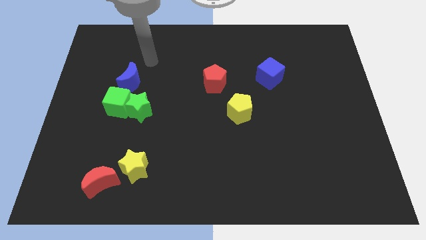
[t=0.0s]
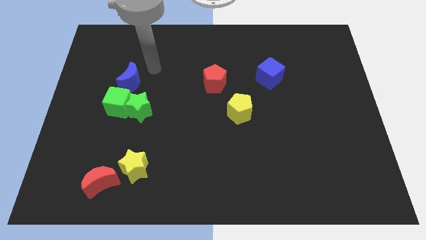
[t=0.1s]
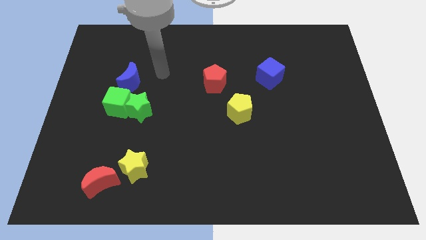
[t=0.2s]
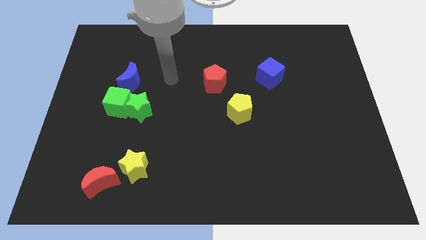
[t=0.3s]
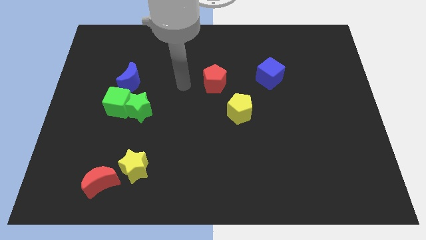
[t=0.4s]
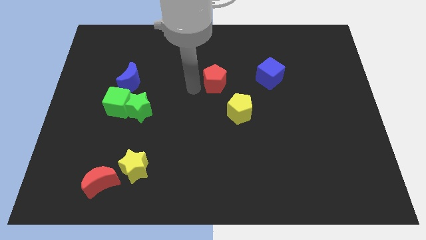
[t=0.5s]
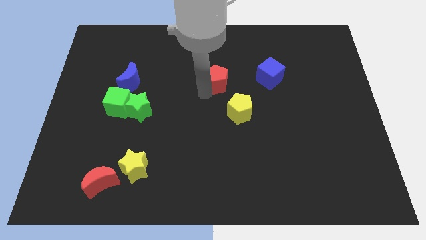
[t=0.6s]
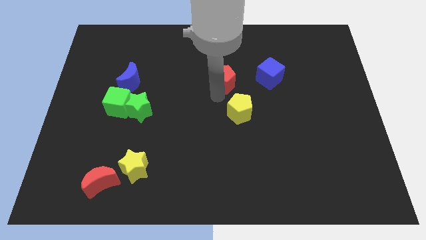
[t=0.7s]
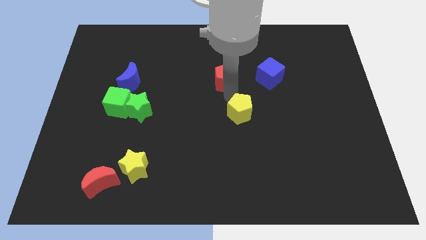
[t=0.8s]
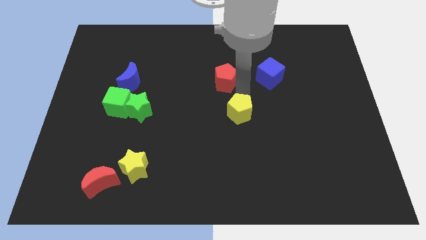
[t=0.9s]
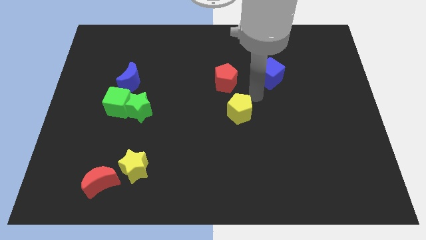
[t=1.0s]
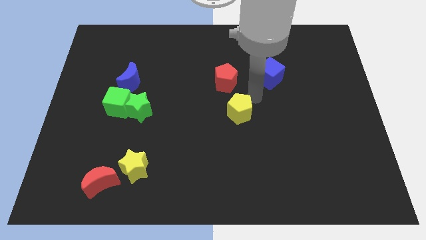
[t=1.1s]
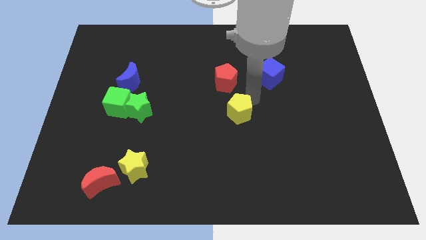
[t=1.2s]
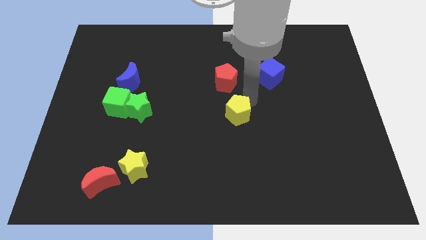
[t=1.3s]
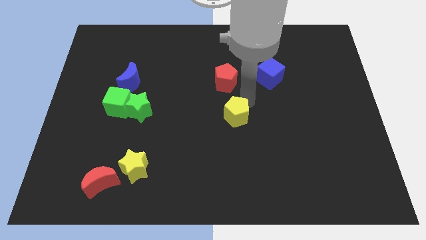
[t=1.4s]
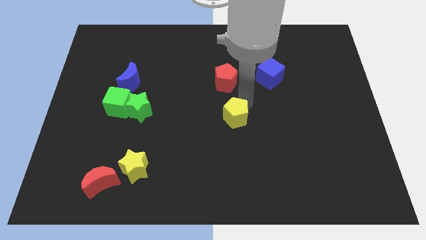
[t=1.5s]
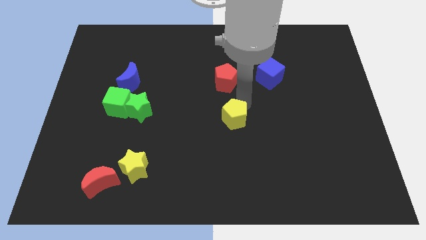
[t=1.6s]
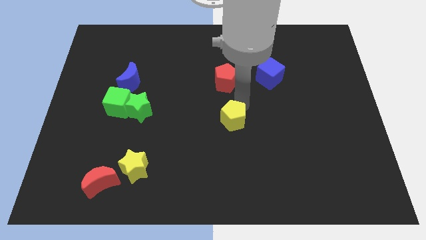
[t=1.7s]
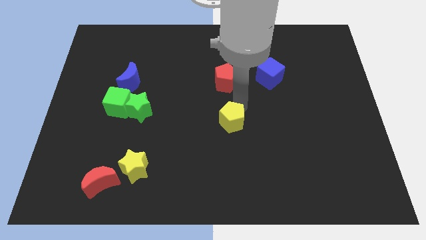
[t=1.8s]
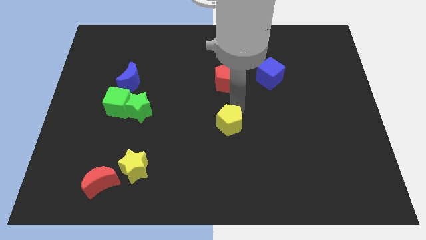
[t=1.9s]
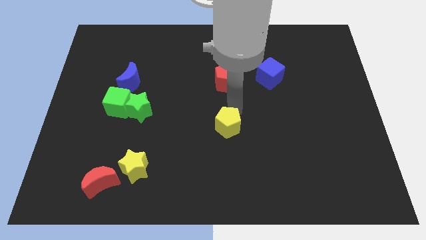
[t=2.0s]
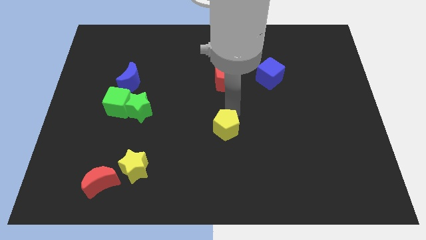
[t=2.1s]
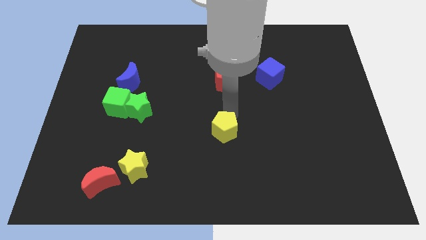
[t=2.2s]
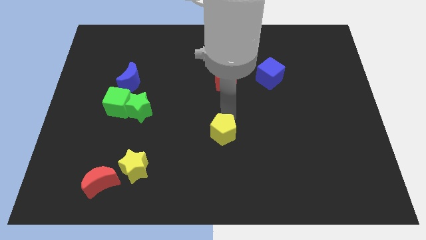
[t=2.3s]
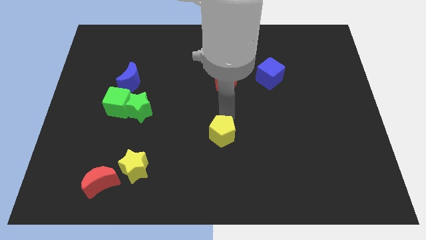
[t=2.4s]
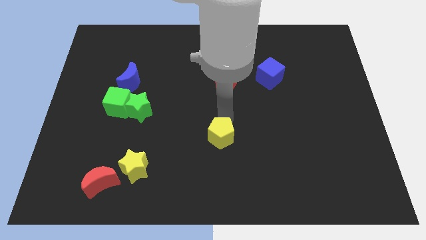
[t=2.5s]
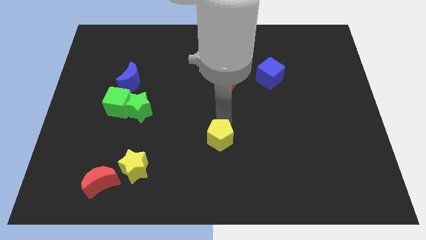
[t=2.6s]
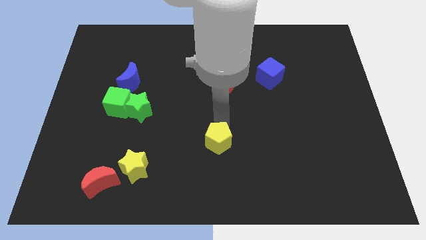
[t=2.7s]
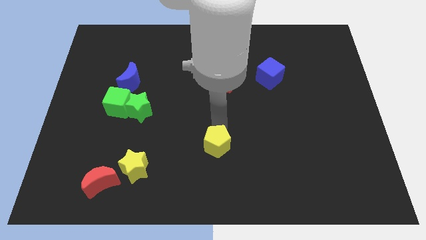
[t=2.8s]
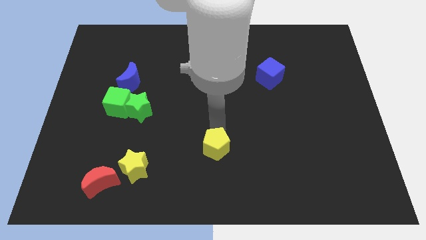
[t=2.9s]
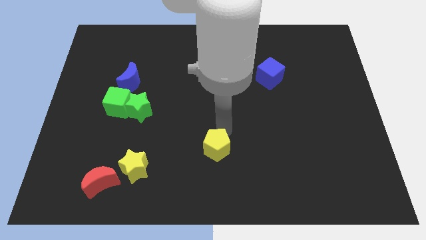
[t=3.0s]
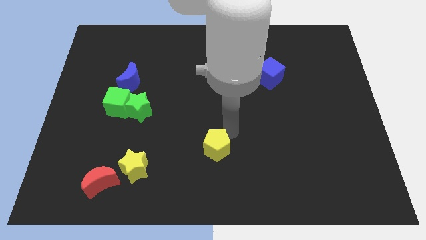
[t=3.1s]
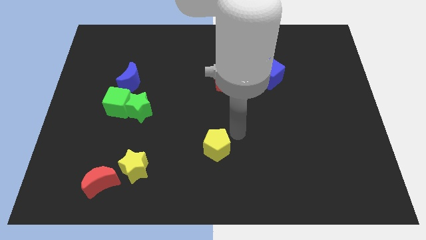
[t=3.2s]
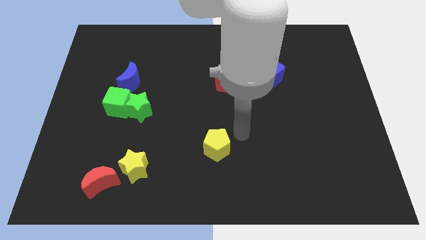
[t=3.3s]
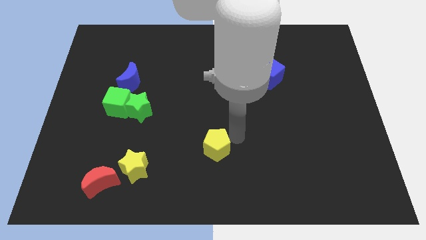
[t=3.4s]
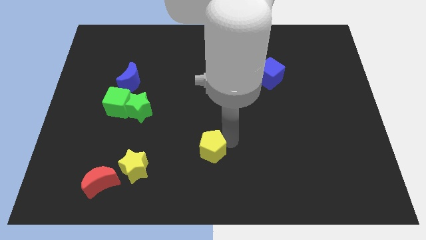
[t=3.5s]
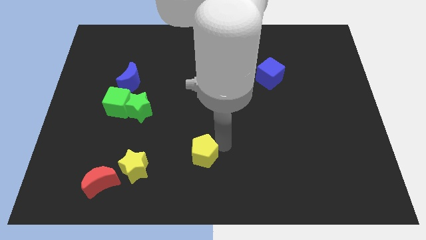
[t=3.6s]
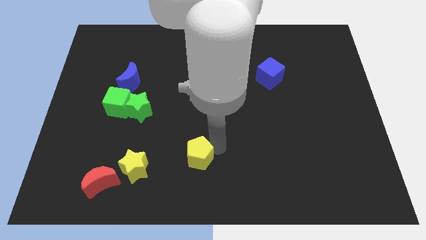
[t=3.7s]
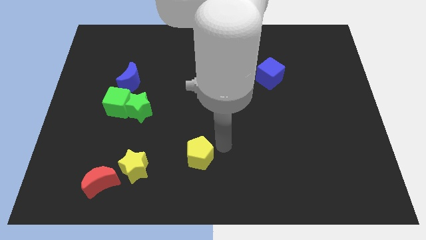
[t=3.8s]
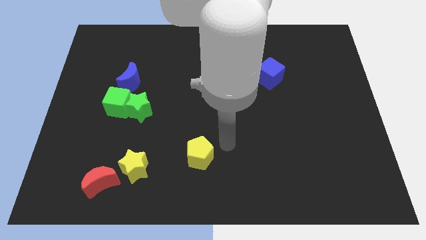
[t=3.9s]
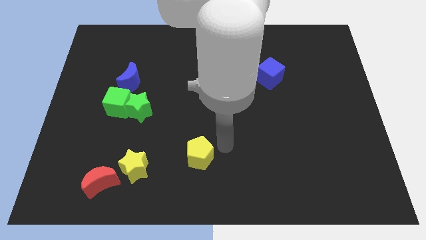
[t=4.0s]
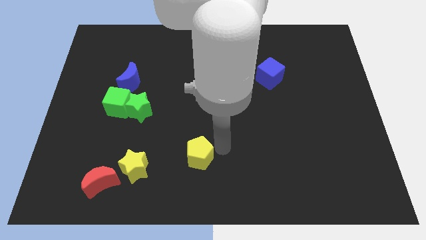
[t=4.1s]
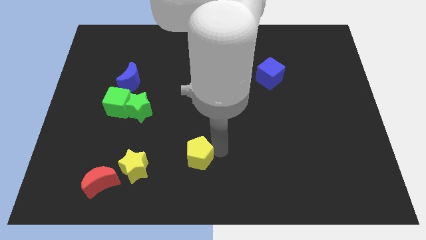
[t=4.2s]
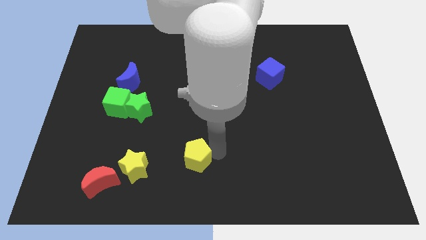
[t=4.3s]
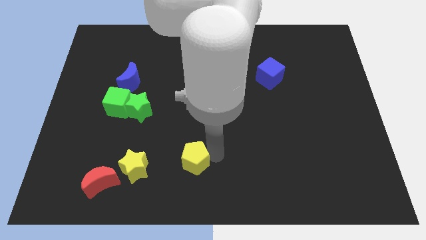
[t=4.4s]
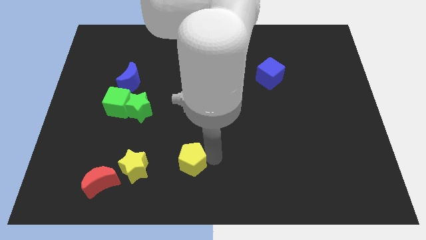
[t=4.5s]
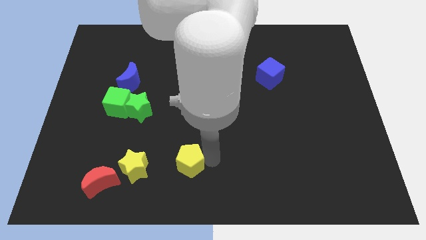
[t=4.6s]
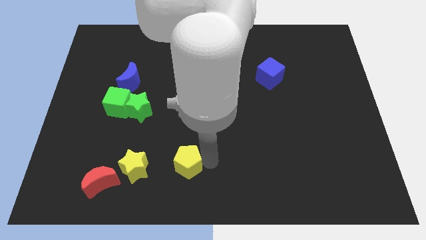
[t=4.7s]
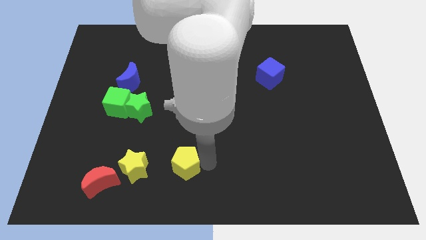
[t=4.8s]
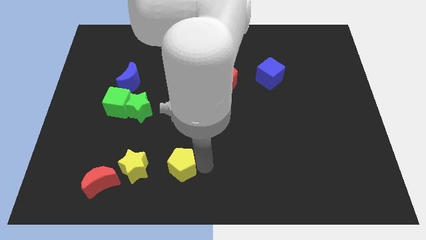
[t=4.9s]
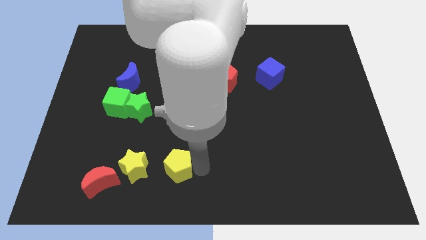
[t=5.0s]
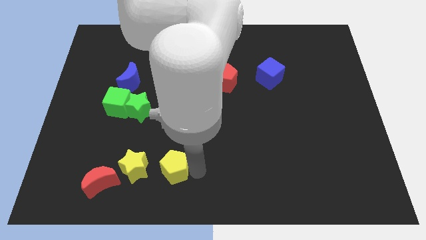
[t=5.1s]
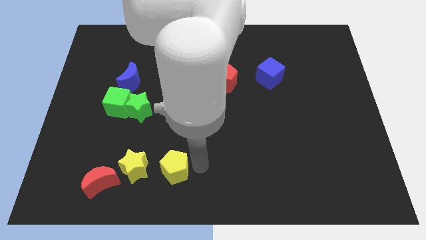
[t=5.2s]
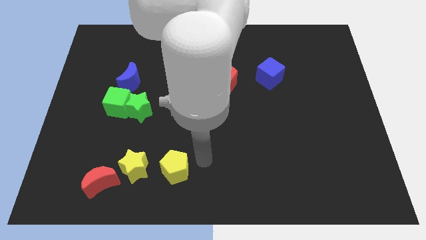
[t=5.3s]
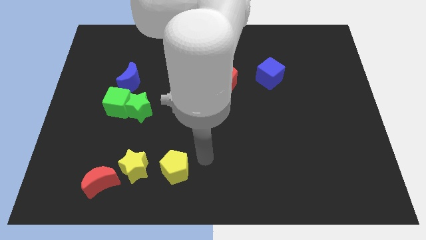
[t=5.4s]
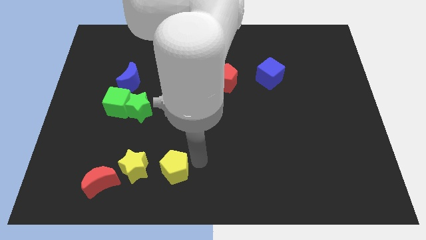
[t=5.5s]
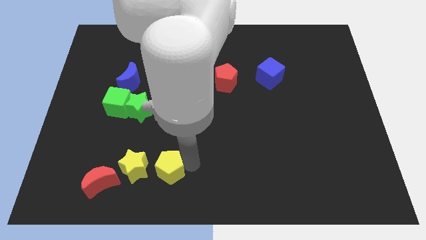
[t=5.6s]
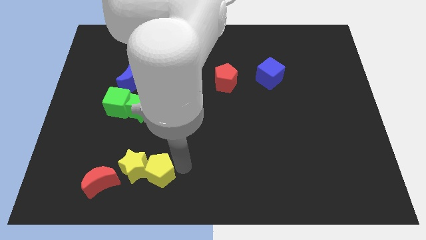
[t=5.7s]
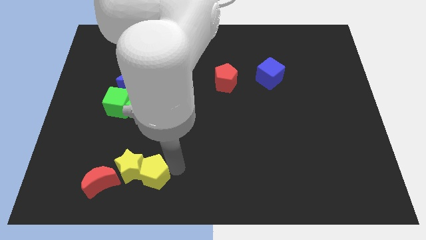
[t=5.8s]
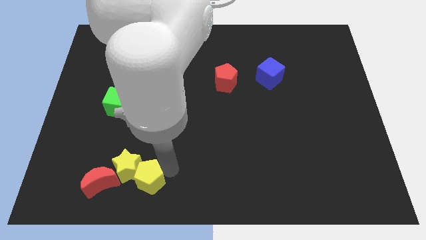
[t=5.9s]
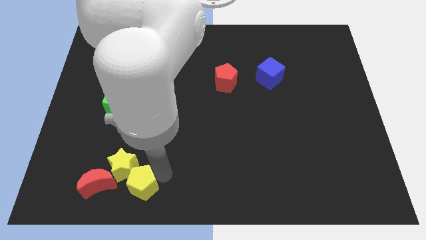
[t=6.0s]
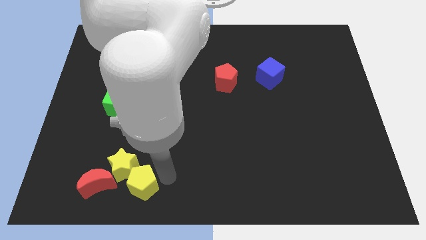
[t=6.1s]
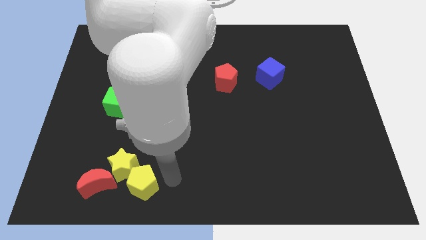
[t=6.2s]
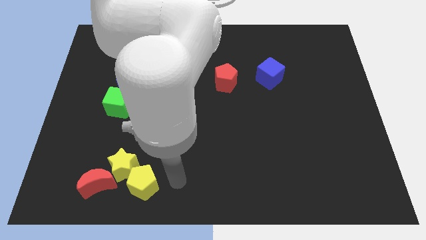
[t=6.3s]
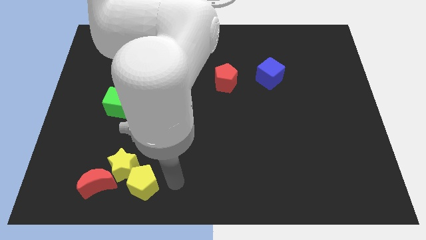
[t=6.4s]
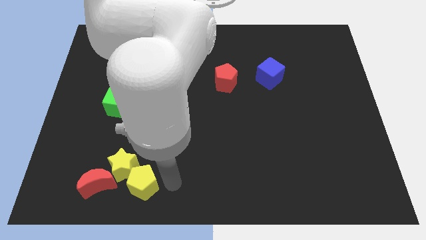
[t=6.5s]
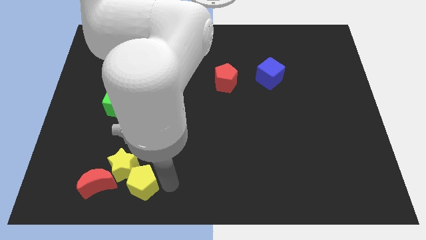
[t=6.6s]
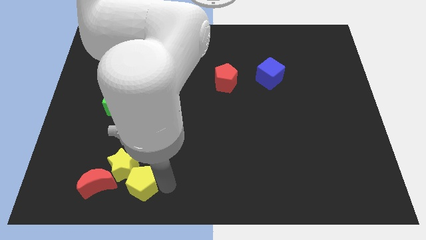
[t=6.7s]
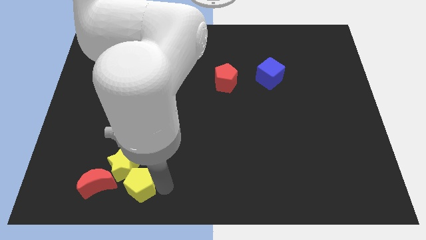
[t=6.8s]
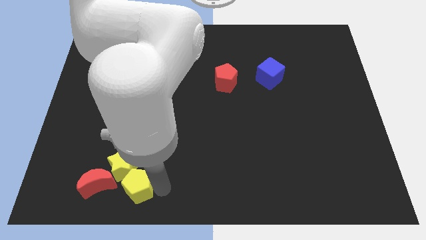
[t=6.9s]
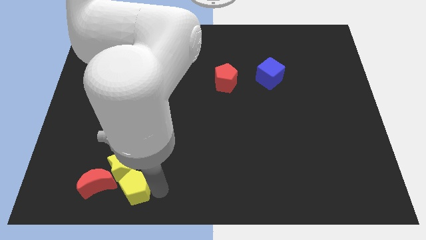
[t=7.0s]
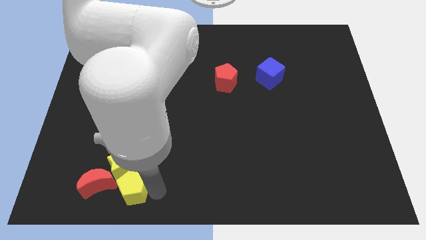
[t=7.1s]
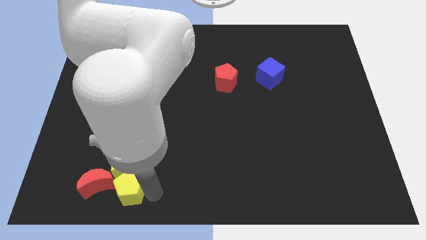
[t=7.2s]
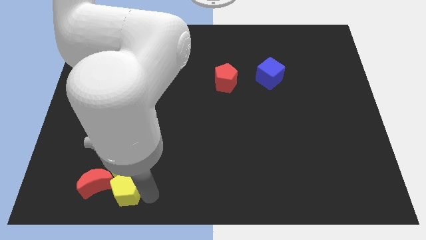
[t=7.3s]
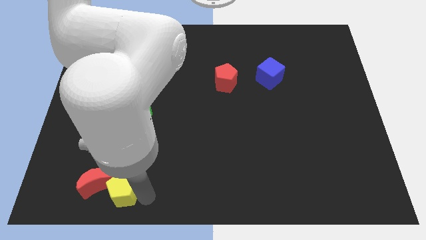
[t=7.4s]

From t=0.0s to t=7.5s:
move the yellow pentagon next to the red moon
